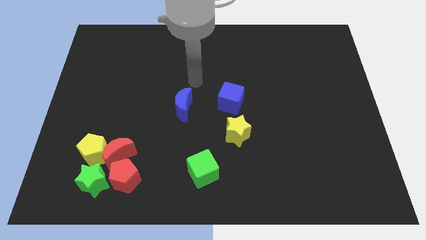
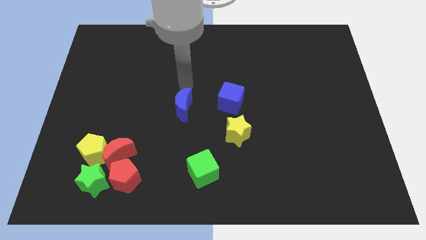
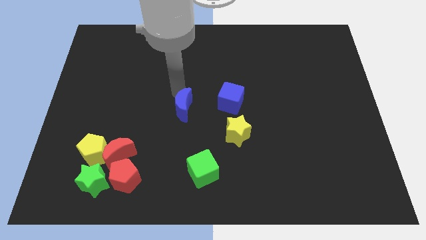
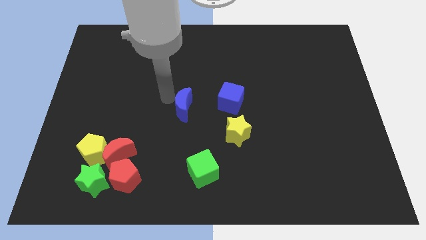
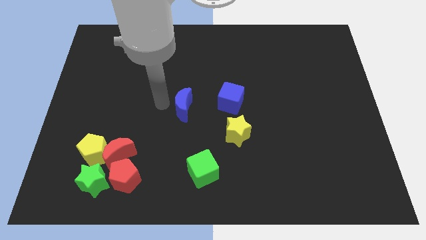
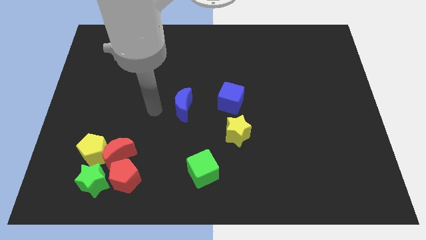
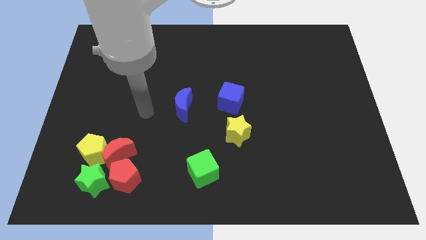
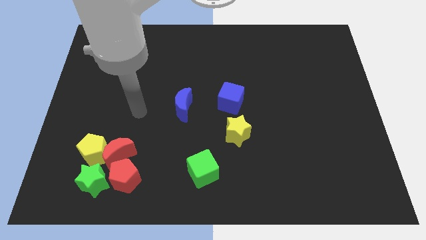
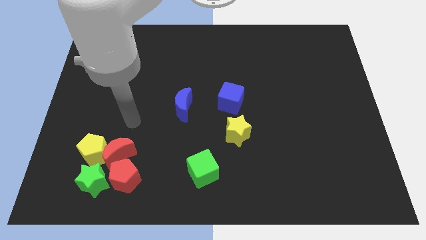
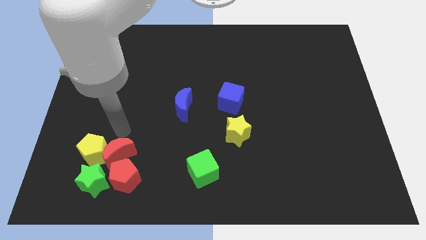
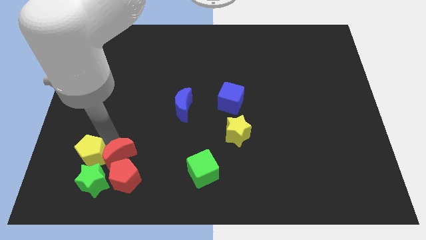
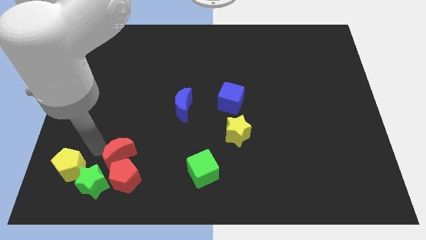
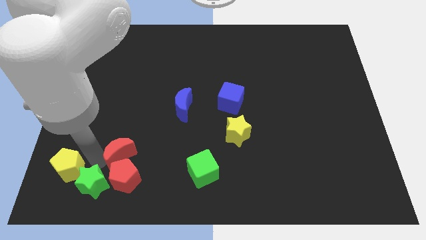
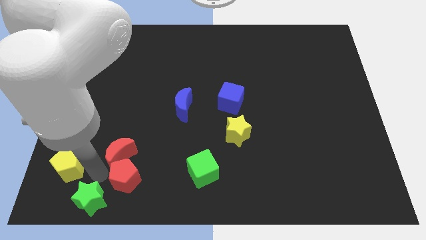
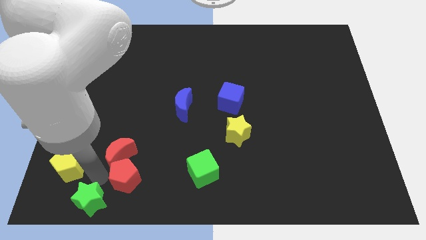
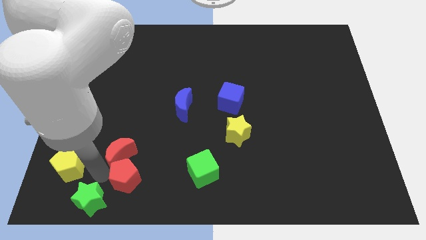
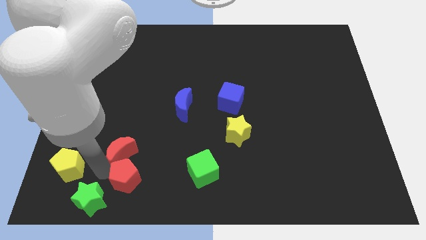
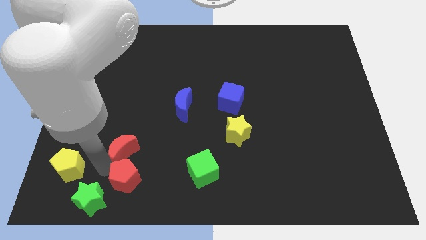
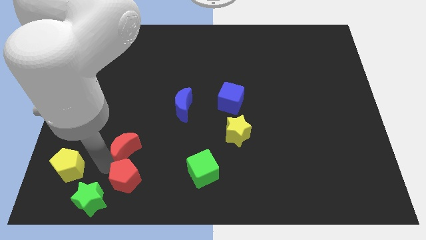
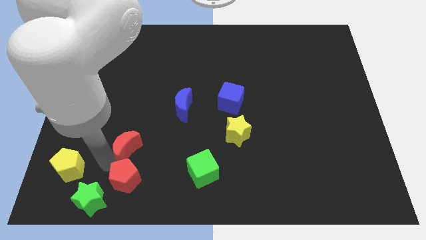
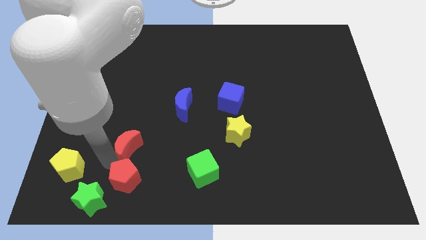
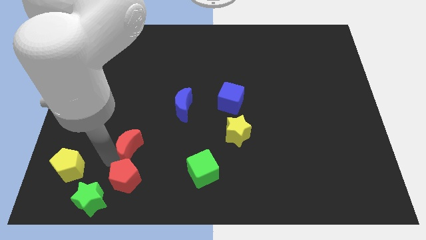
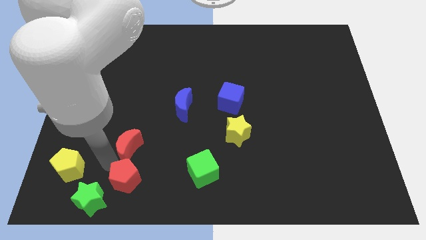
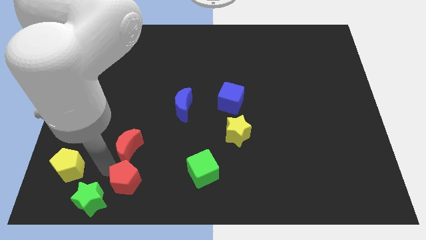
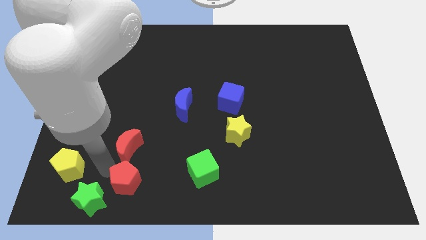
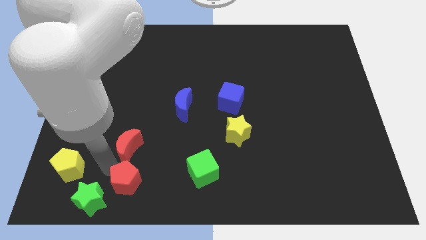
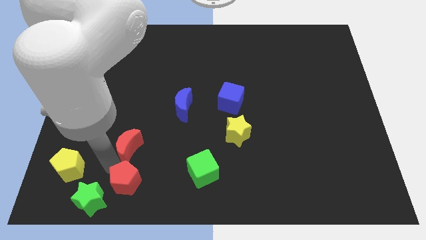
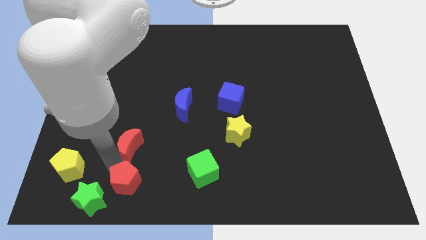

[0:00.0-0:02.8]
move the red moon away from the yellow pentagon, red pentagon, and green star

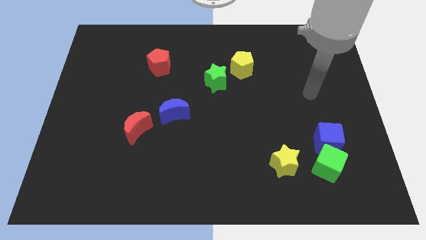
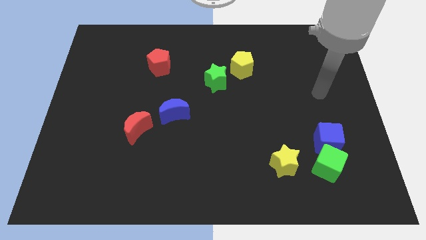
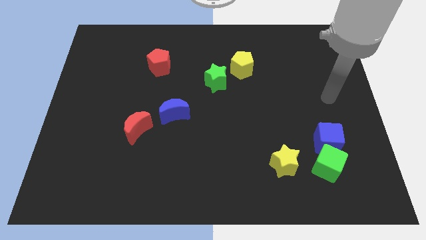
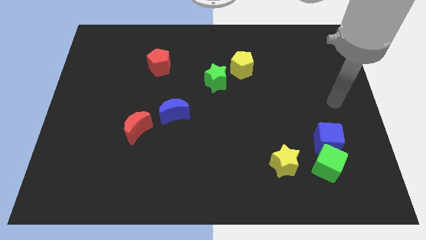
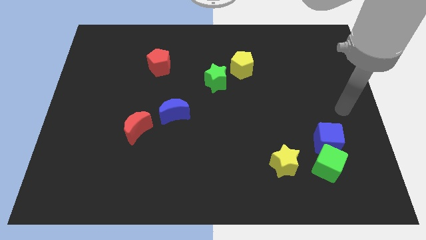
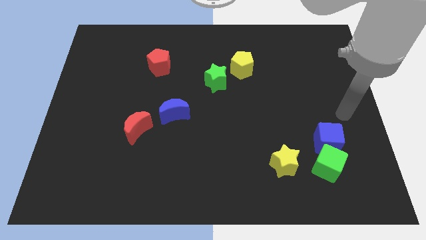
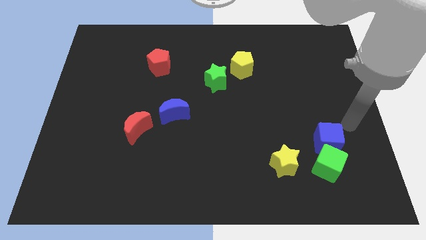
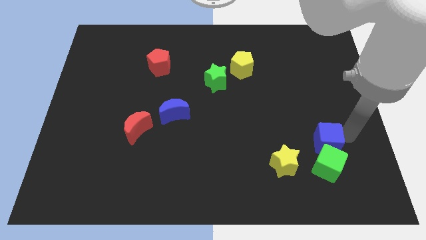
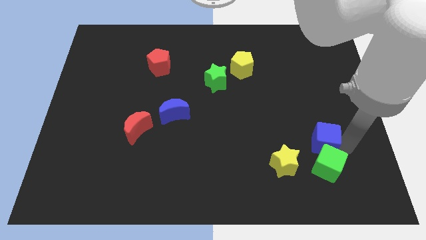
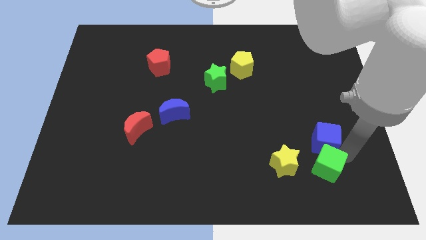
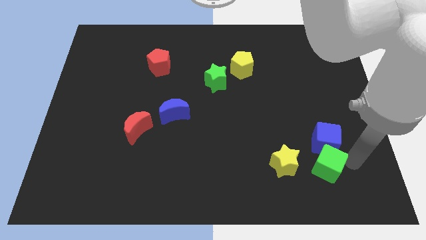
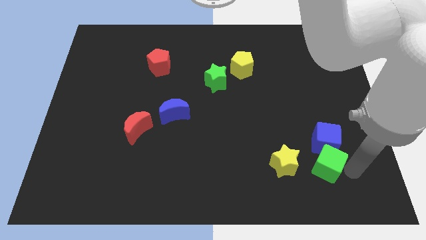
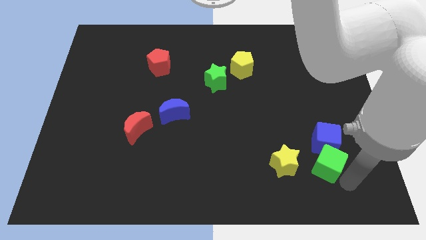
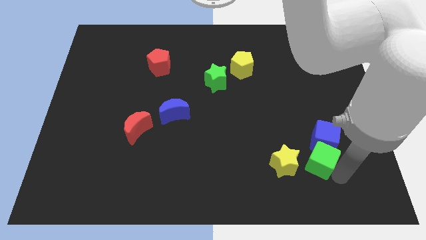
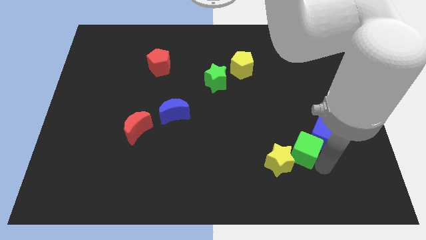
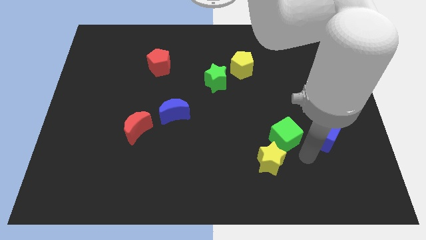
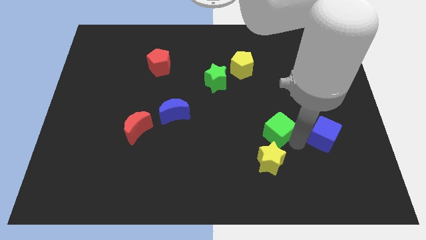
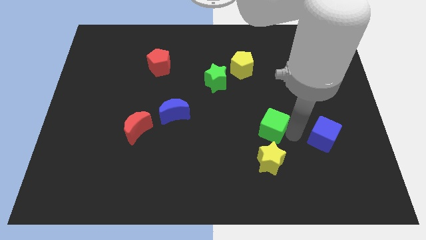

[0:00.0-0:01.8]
separate the blue cube from the green cube

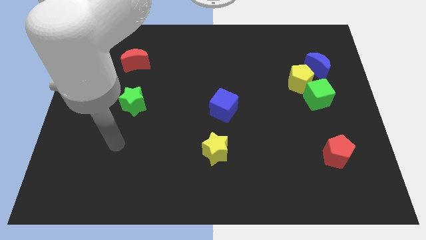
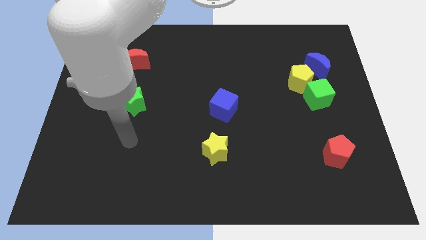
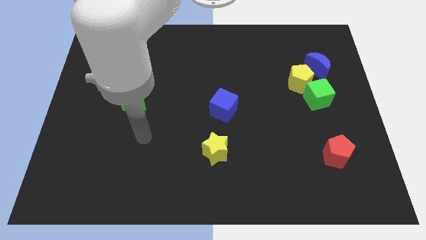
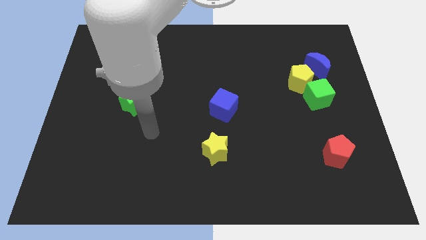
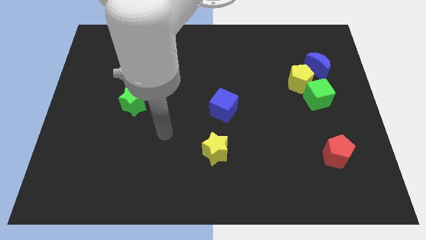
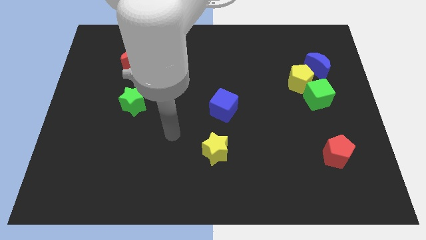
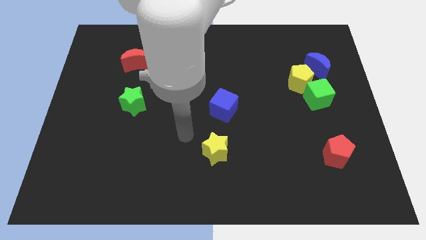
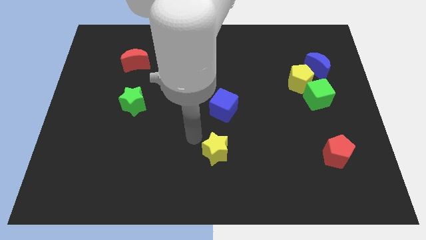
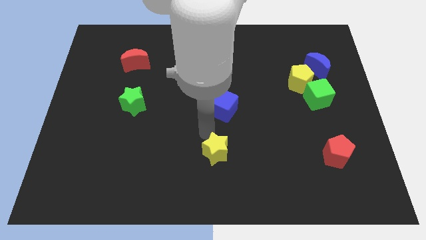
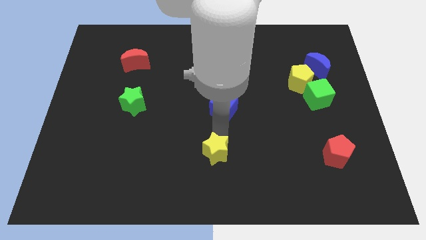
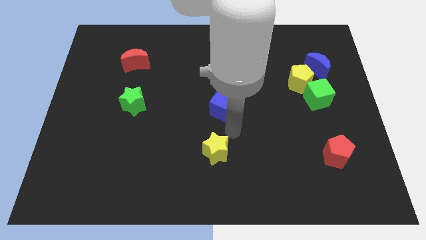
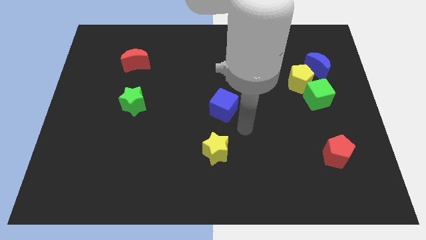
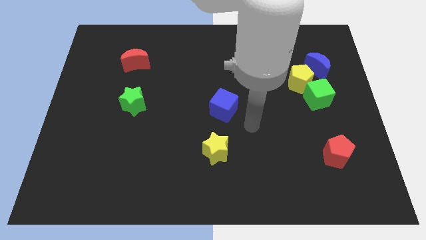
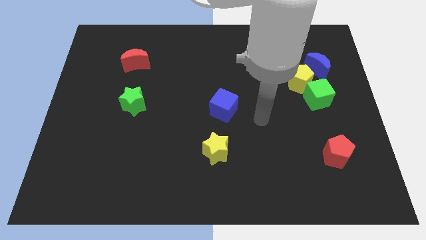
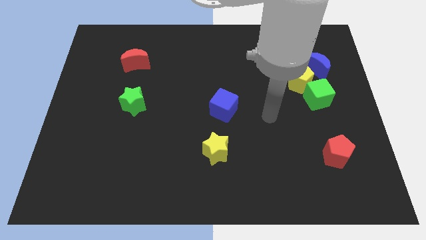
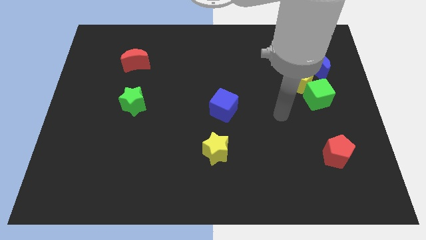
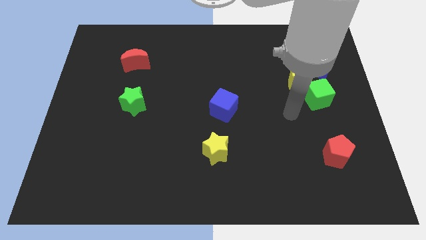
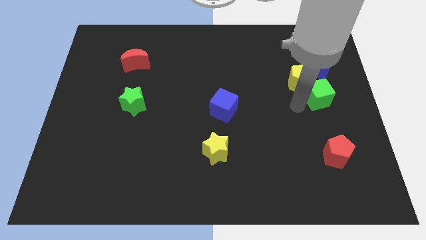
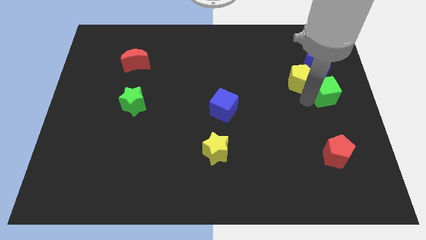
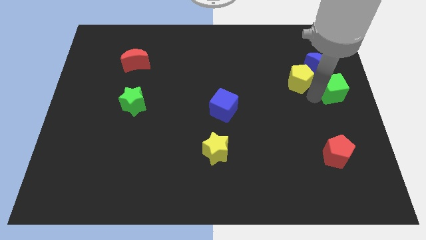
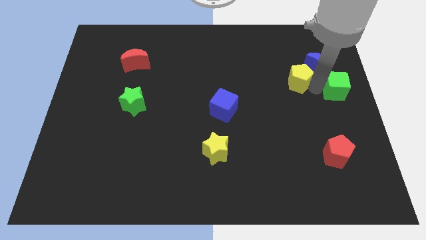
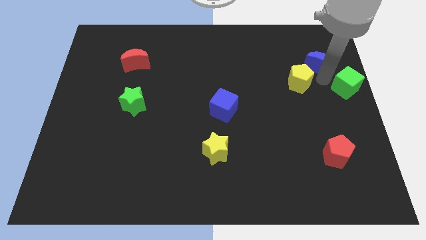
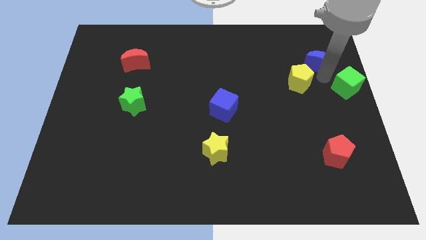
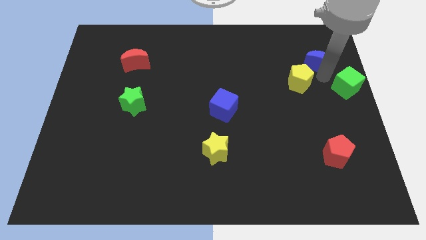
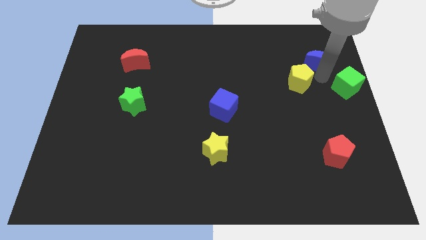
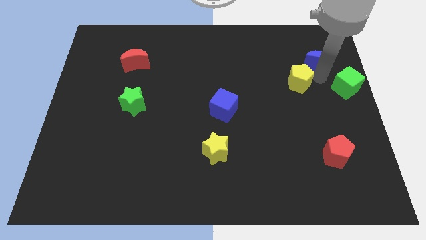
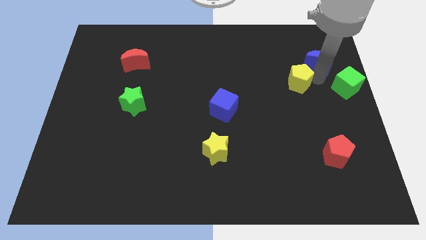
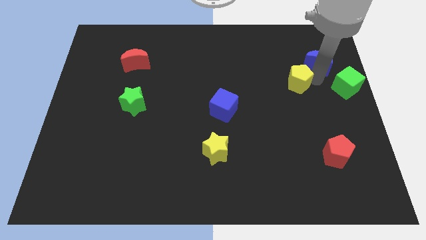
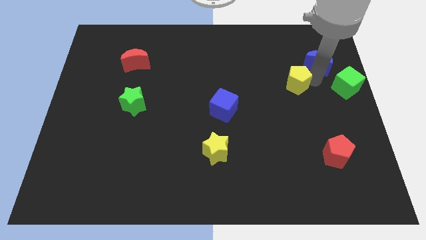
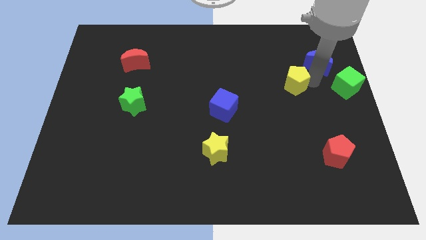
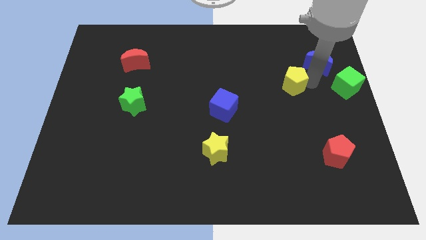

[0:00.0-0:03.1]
separate the yellow pentagon from the green cube and blue moon

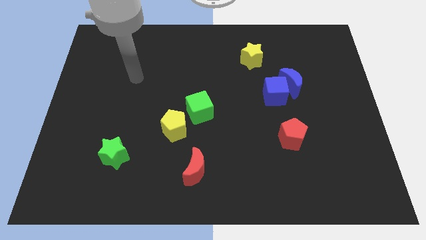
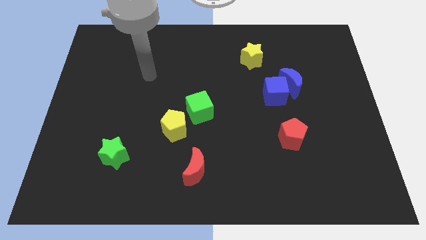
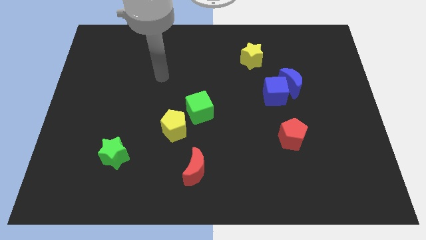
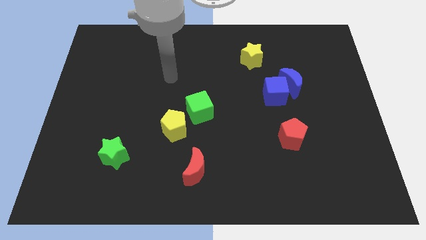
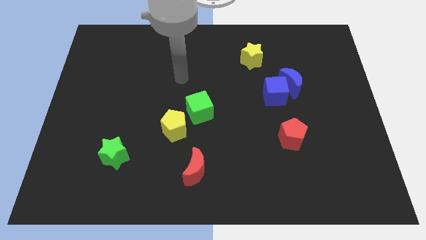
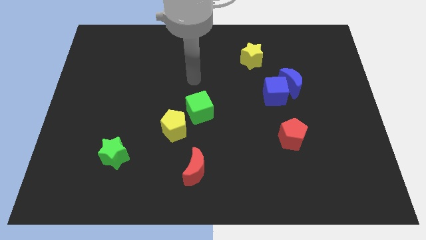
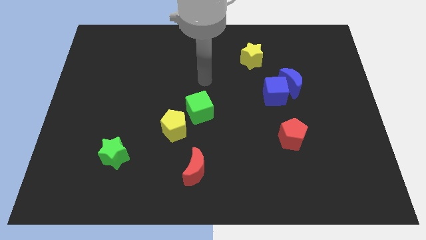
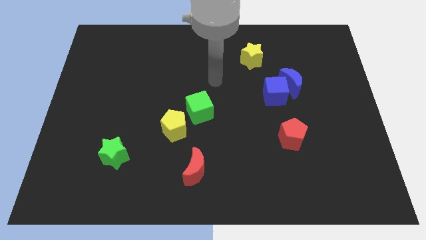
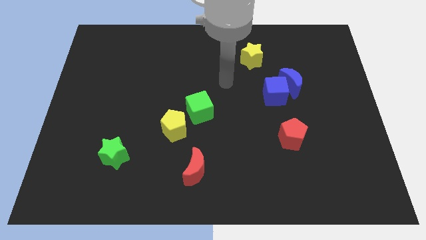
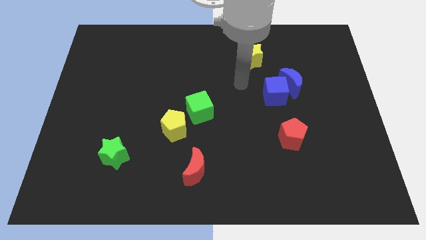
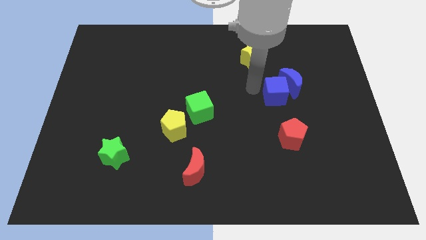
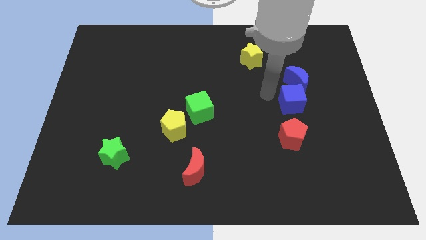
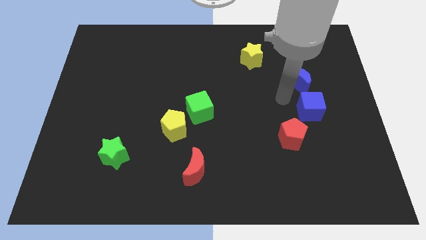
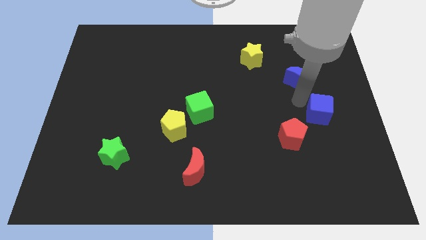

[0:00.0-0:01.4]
move the blue moon away from the blue cube

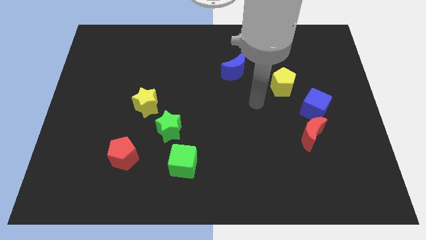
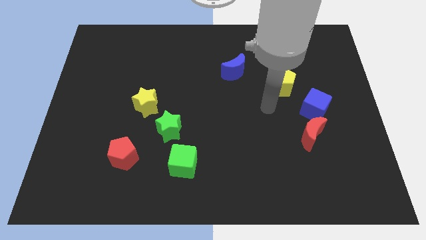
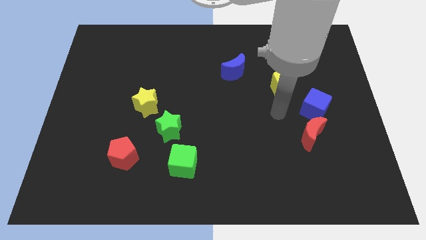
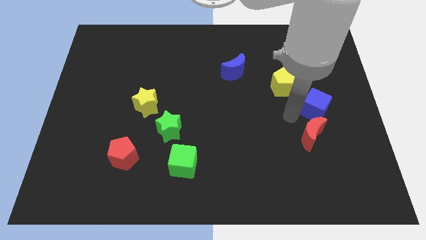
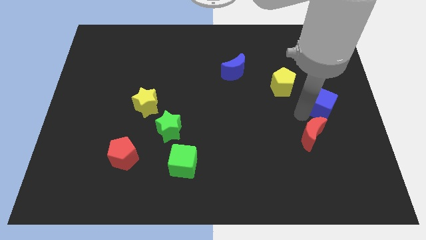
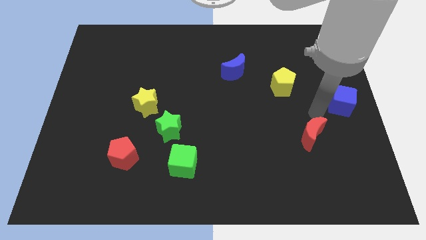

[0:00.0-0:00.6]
separate the red moon from the blue cube
